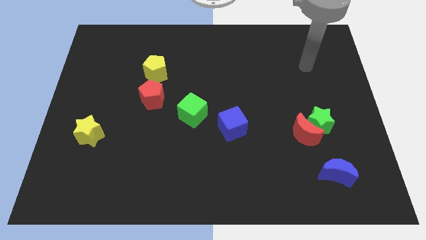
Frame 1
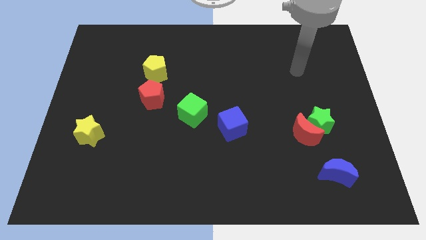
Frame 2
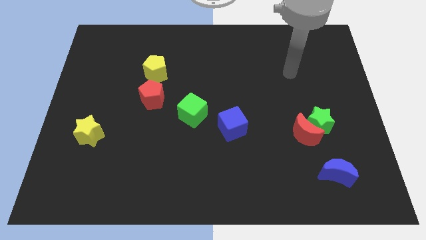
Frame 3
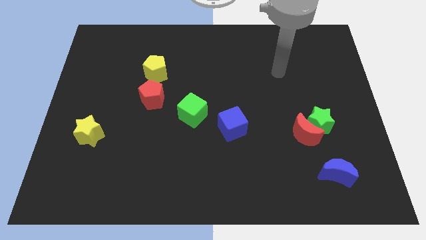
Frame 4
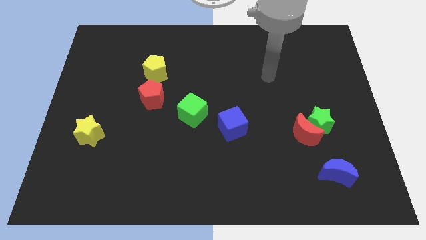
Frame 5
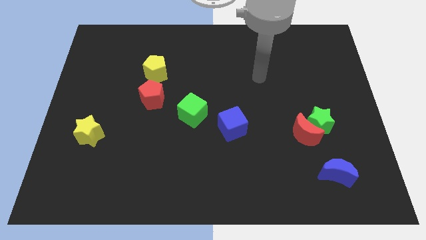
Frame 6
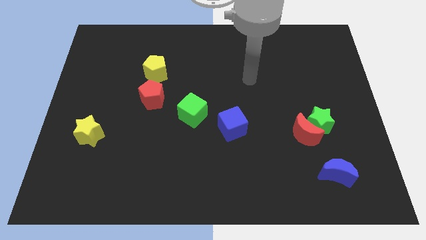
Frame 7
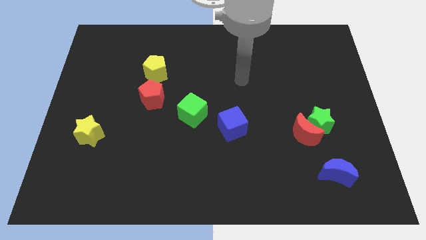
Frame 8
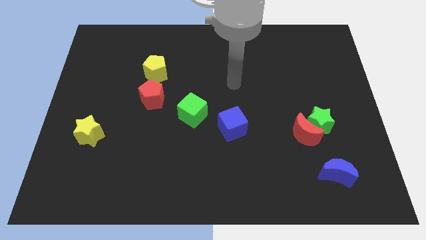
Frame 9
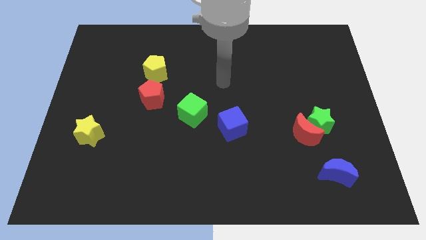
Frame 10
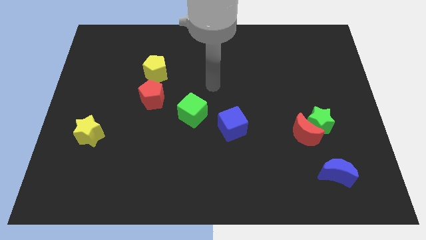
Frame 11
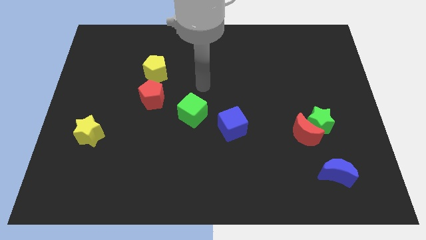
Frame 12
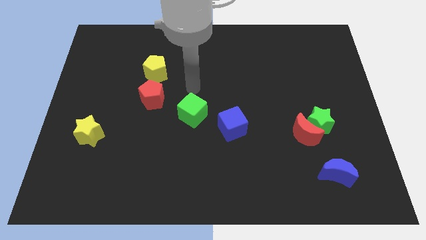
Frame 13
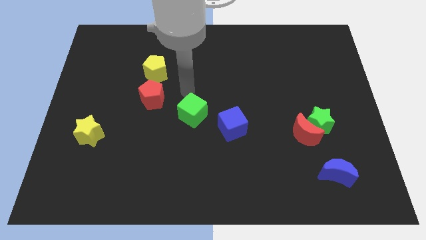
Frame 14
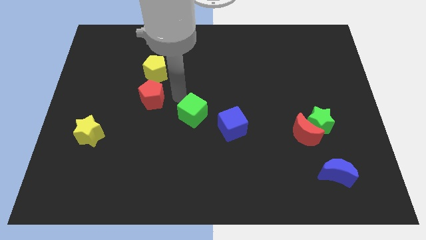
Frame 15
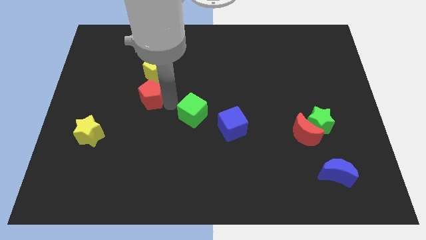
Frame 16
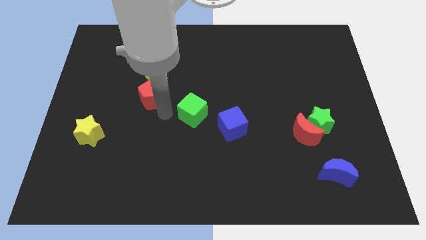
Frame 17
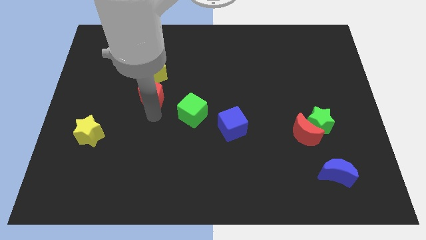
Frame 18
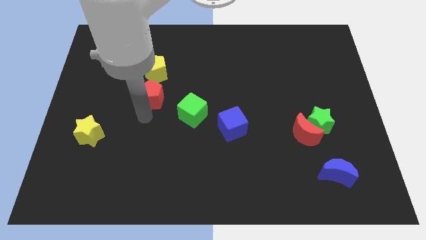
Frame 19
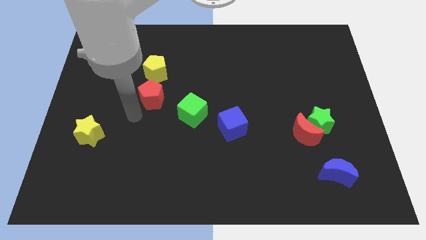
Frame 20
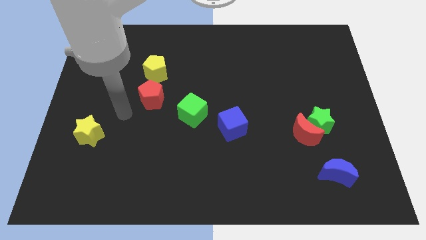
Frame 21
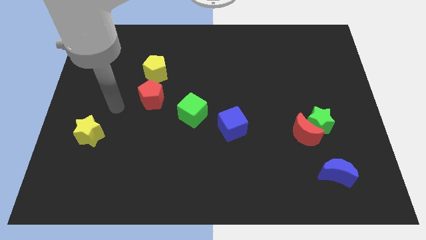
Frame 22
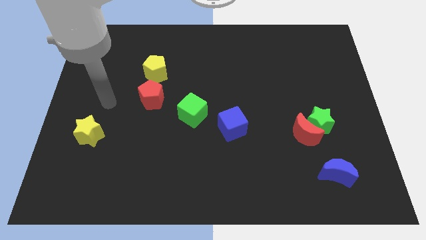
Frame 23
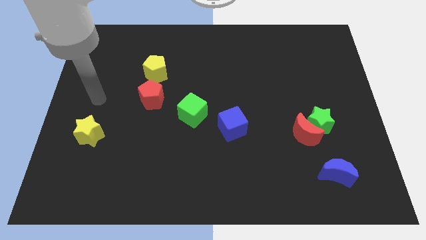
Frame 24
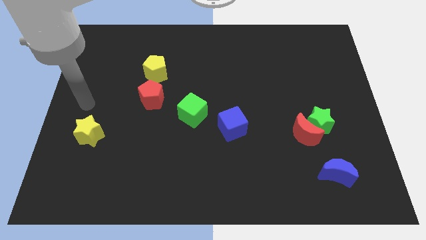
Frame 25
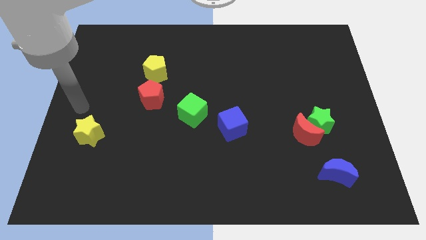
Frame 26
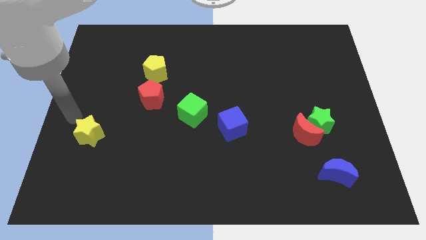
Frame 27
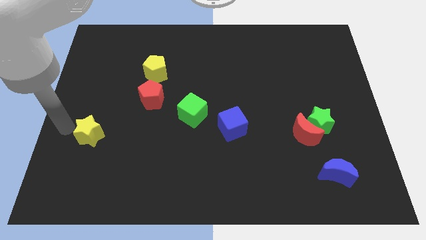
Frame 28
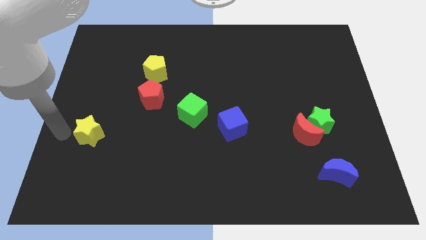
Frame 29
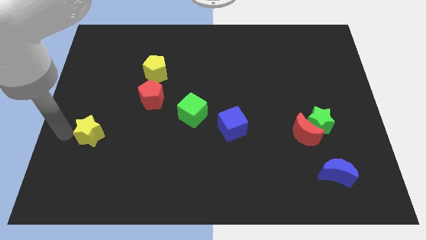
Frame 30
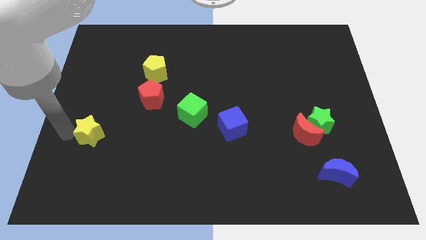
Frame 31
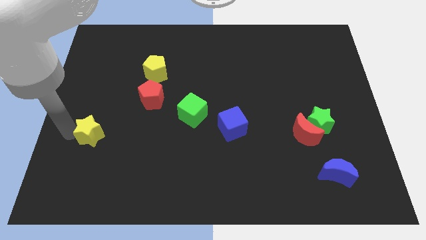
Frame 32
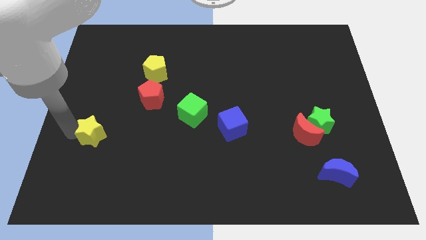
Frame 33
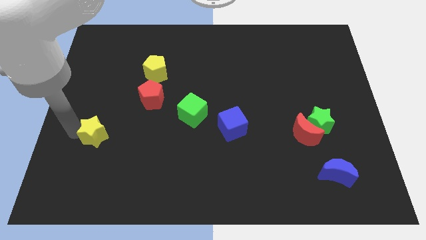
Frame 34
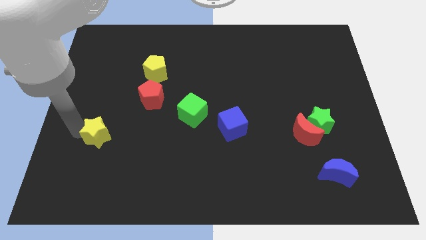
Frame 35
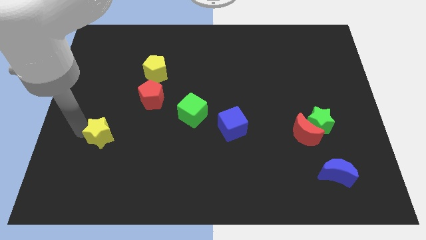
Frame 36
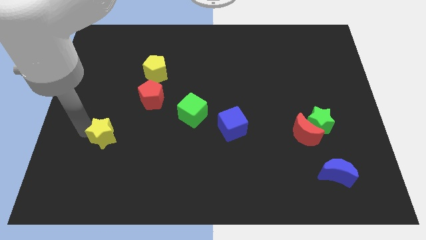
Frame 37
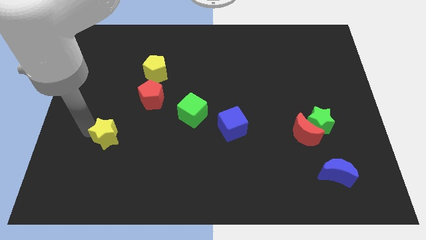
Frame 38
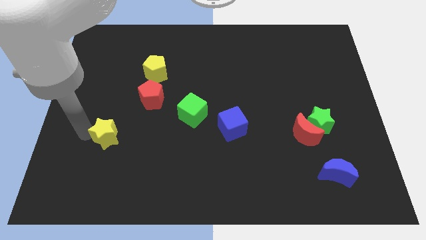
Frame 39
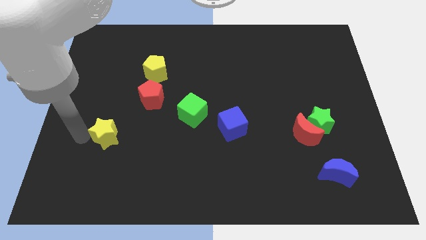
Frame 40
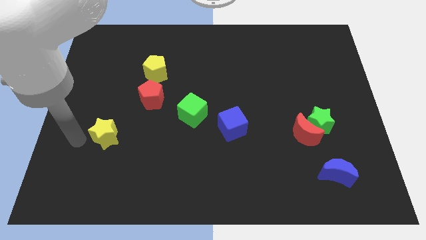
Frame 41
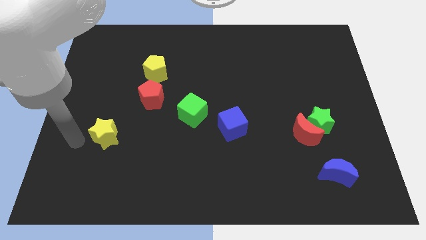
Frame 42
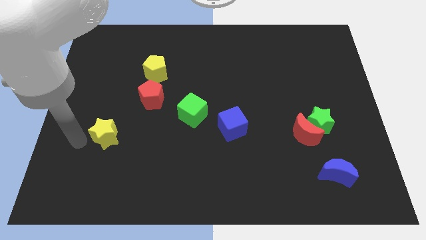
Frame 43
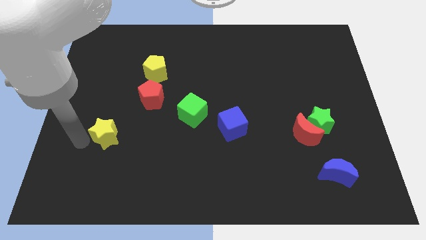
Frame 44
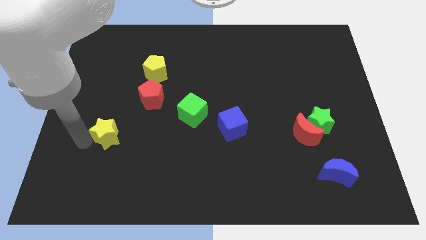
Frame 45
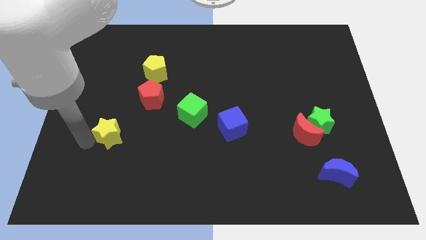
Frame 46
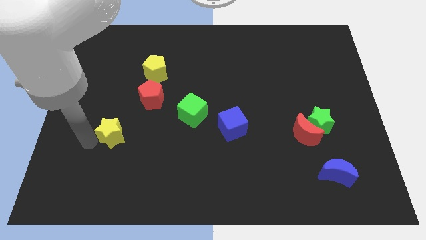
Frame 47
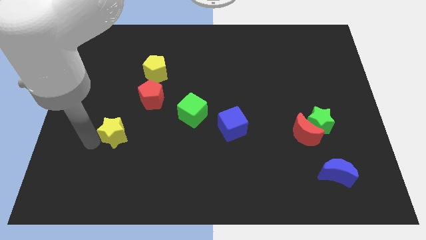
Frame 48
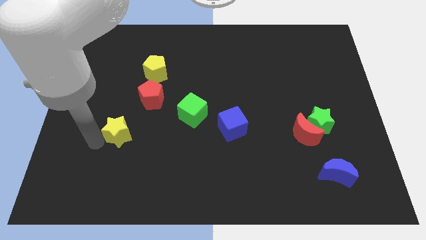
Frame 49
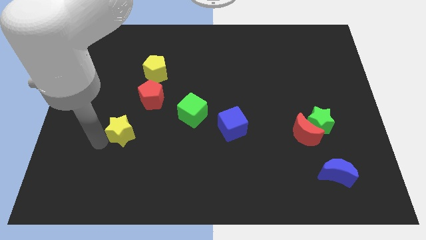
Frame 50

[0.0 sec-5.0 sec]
slide the yellow star a little right

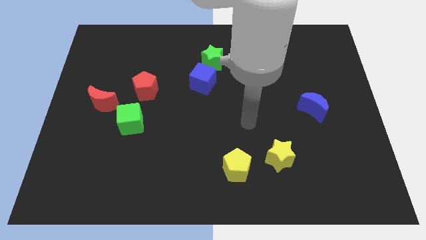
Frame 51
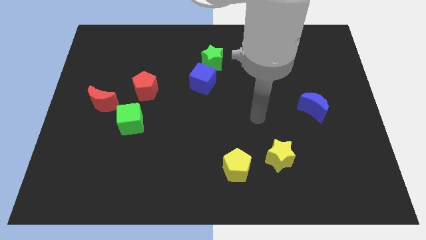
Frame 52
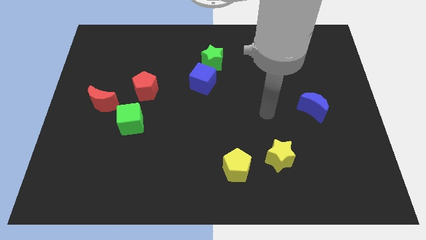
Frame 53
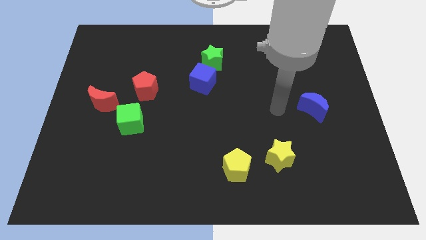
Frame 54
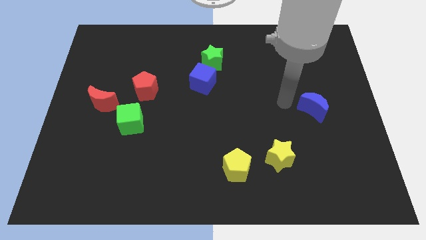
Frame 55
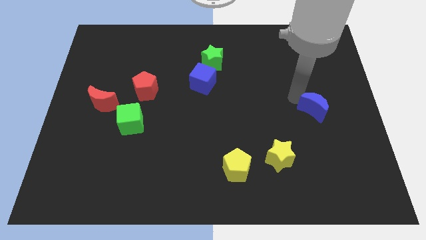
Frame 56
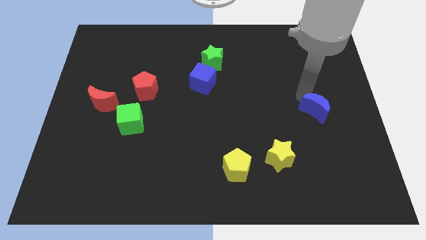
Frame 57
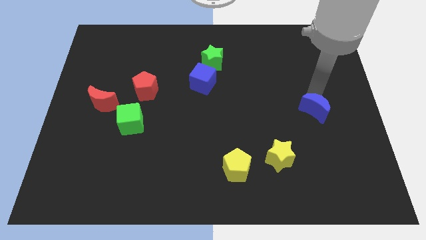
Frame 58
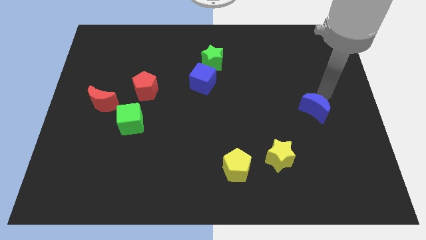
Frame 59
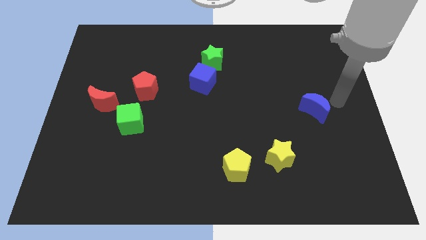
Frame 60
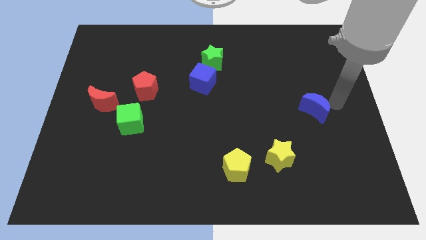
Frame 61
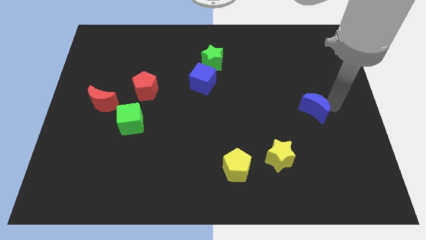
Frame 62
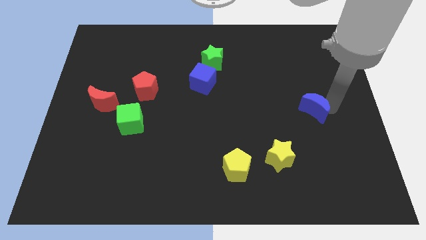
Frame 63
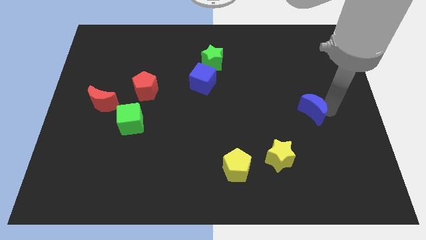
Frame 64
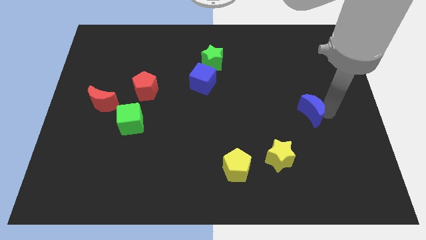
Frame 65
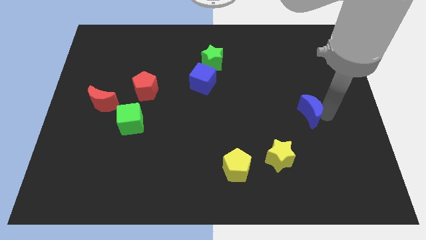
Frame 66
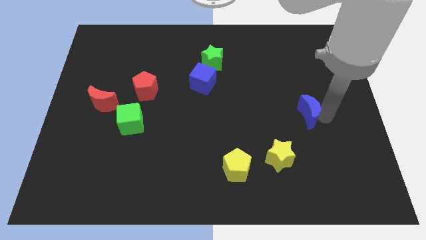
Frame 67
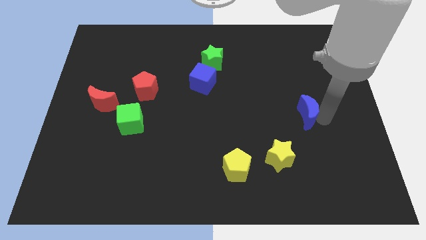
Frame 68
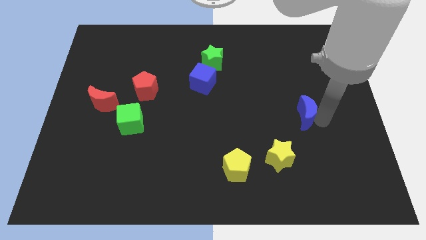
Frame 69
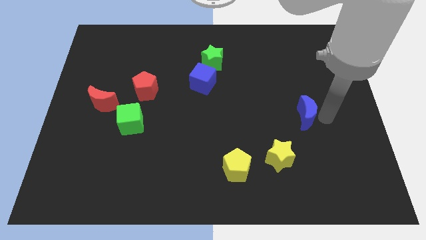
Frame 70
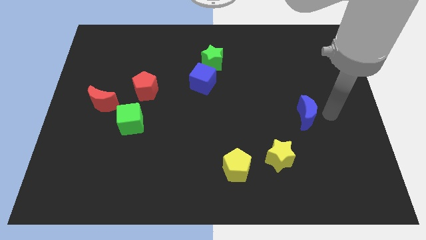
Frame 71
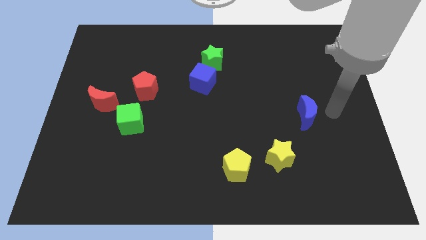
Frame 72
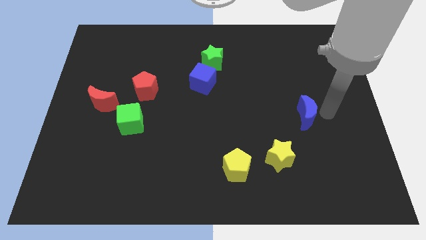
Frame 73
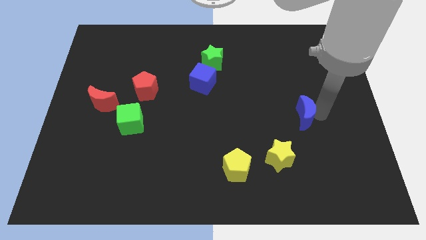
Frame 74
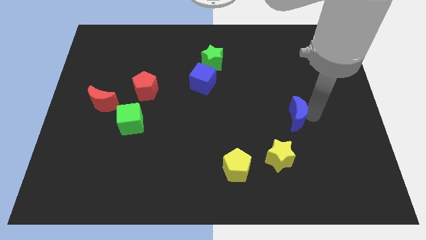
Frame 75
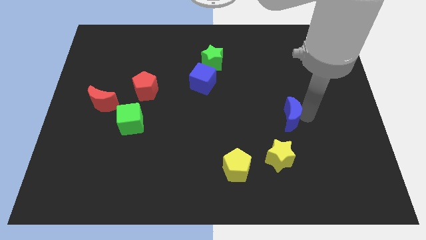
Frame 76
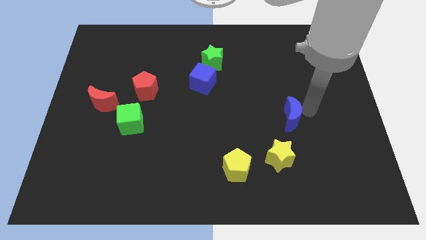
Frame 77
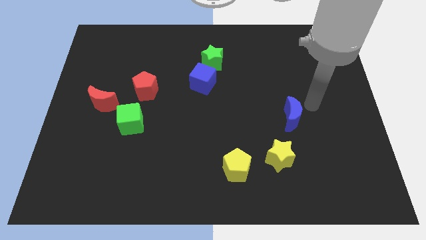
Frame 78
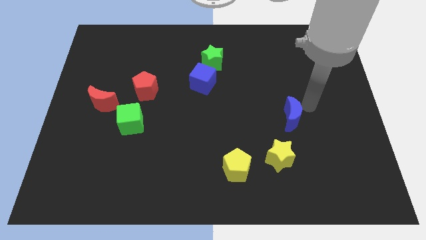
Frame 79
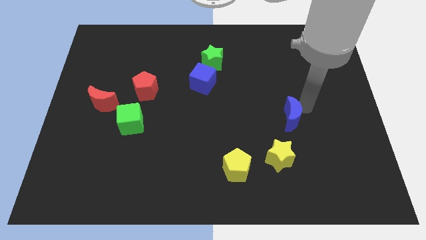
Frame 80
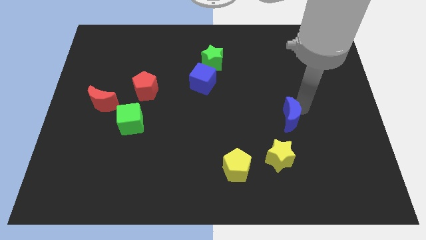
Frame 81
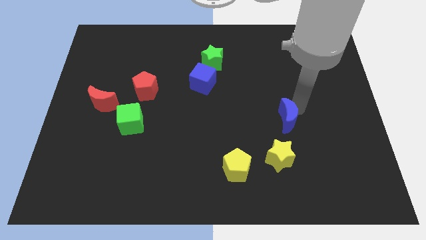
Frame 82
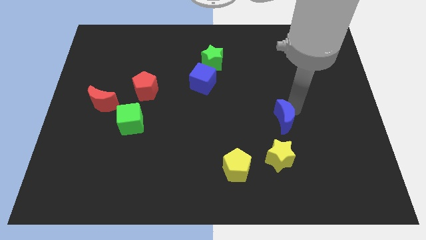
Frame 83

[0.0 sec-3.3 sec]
slightly move the blue moon down and then left
